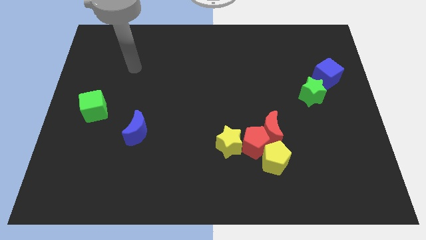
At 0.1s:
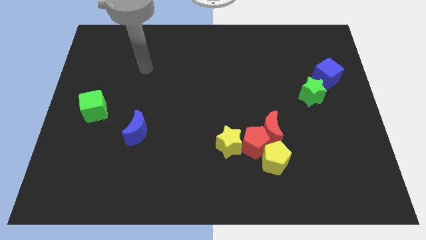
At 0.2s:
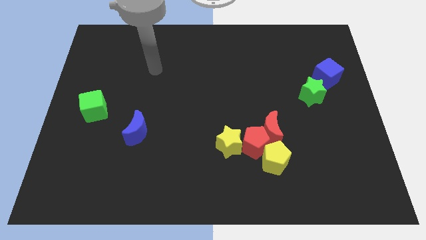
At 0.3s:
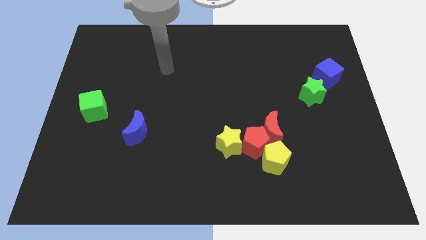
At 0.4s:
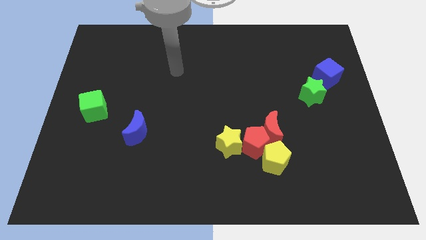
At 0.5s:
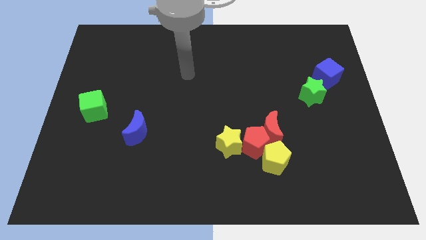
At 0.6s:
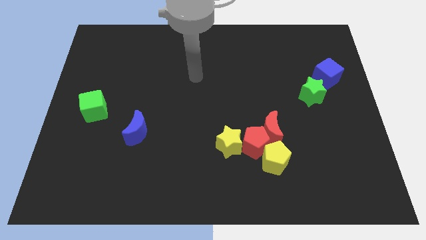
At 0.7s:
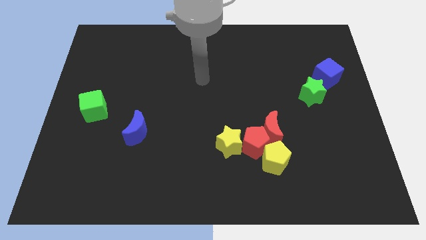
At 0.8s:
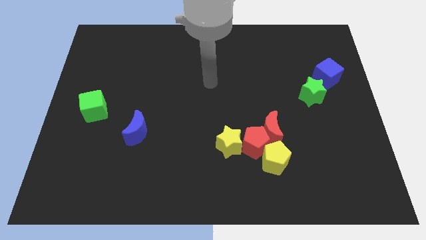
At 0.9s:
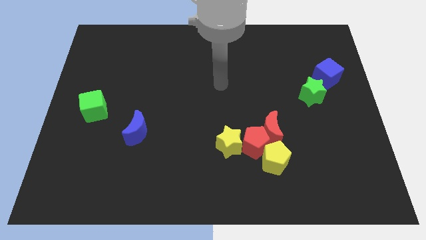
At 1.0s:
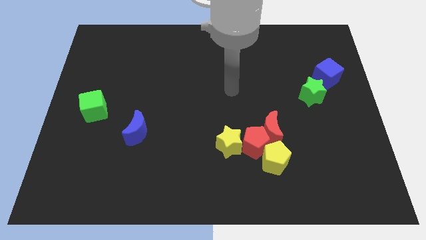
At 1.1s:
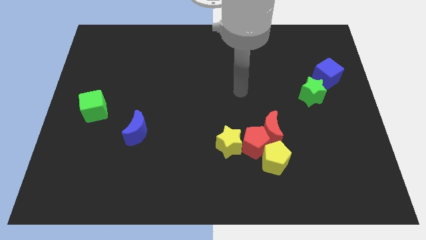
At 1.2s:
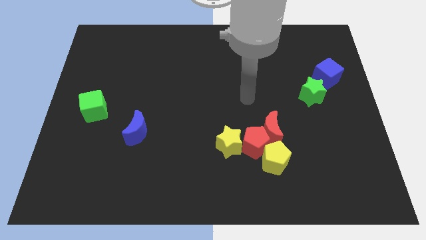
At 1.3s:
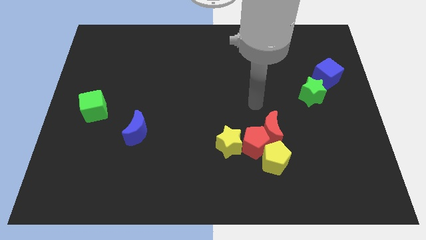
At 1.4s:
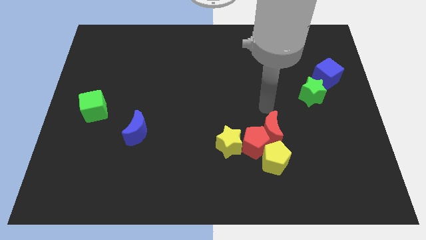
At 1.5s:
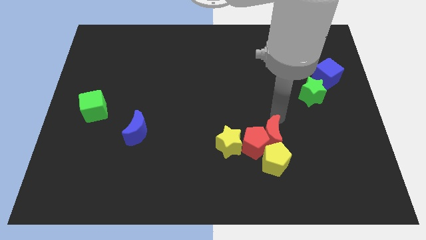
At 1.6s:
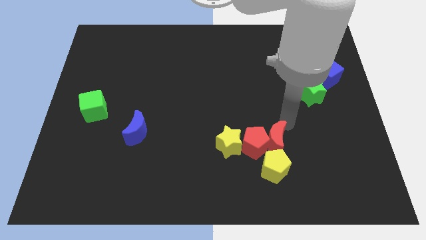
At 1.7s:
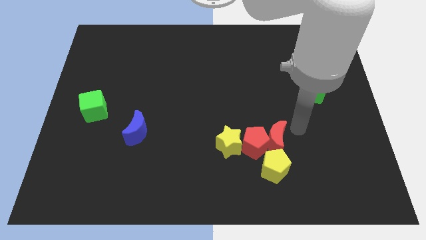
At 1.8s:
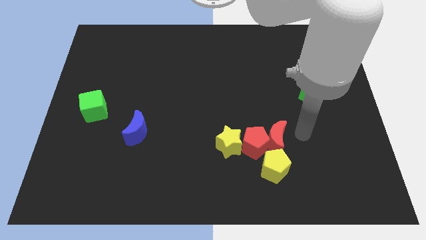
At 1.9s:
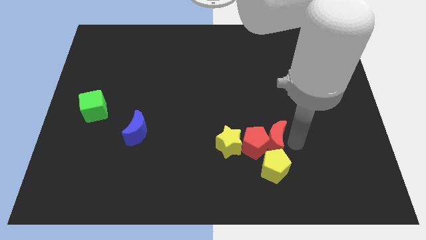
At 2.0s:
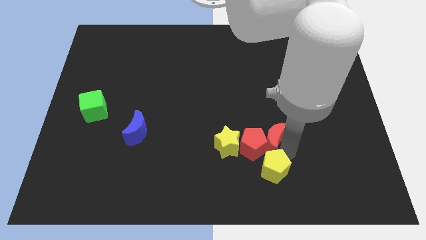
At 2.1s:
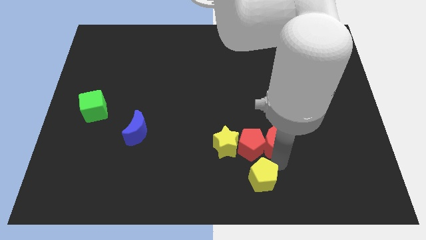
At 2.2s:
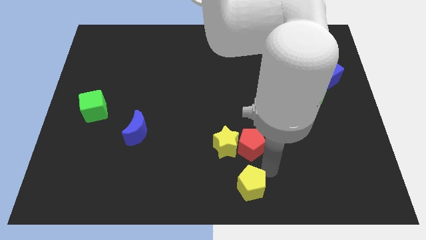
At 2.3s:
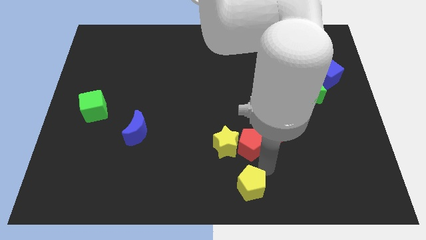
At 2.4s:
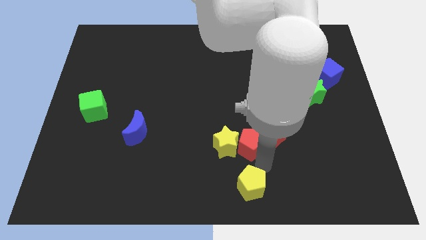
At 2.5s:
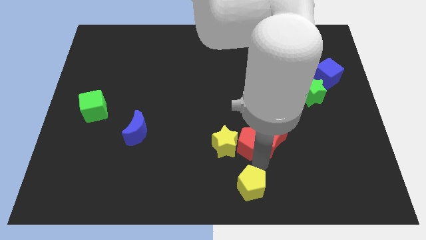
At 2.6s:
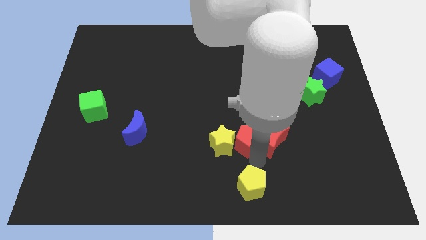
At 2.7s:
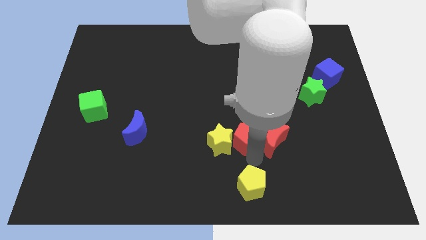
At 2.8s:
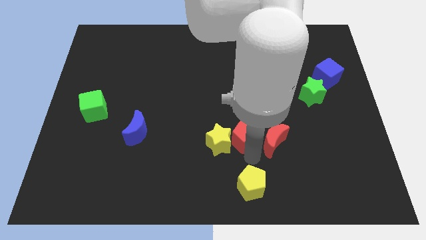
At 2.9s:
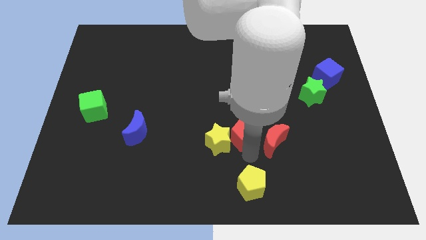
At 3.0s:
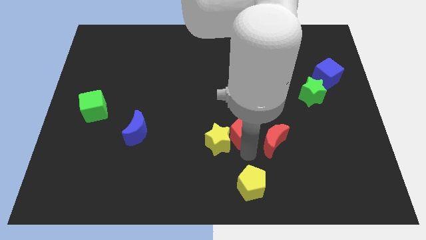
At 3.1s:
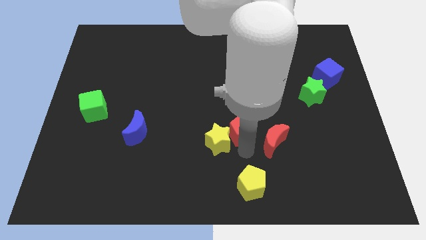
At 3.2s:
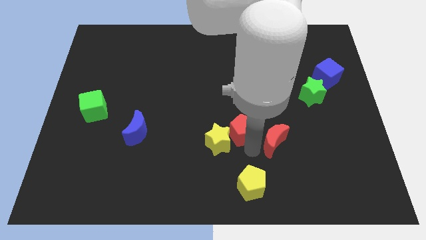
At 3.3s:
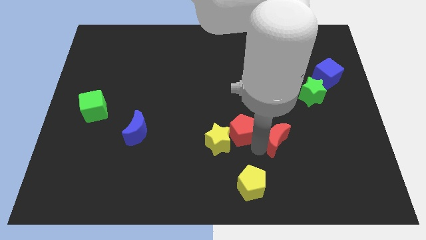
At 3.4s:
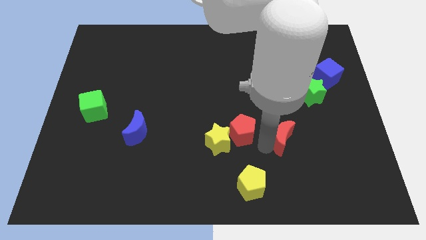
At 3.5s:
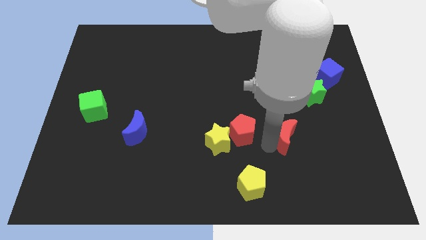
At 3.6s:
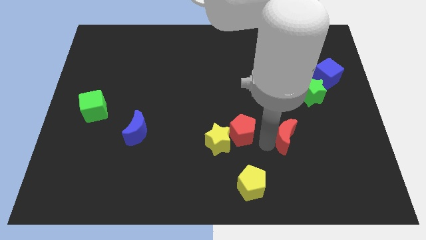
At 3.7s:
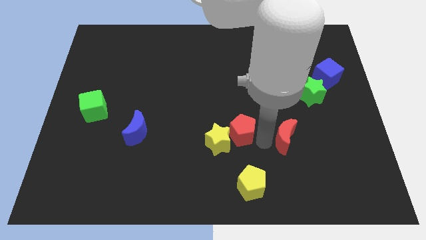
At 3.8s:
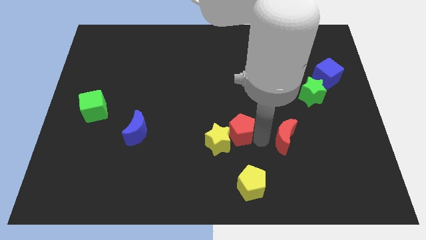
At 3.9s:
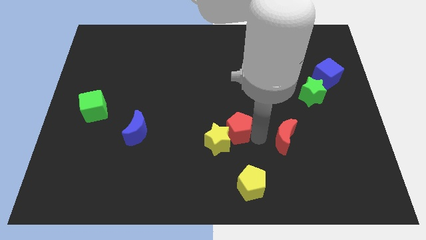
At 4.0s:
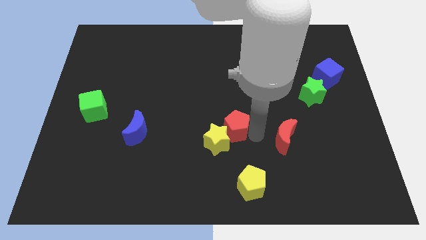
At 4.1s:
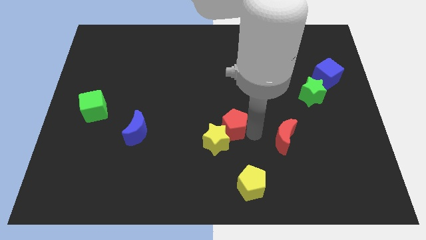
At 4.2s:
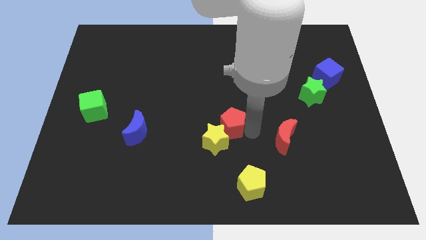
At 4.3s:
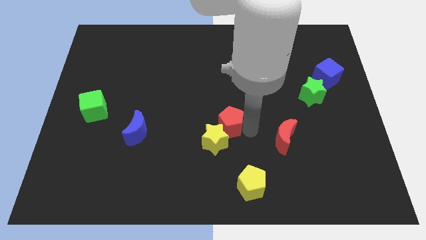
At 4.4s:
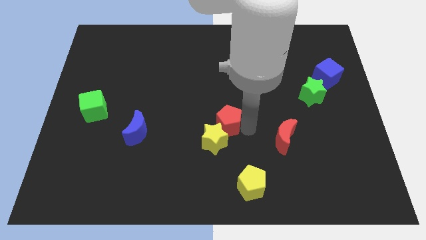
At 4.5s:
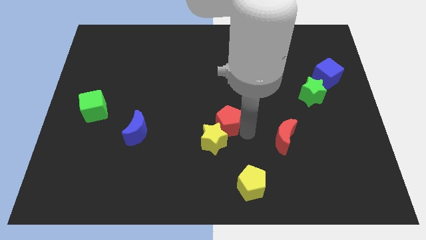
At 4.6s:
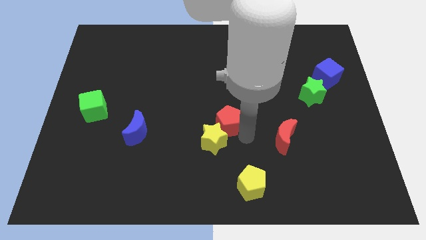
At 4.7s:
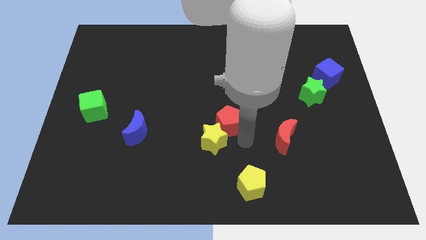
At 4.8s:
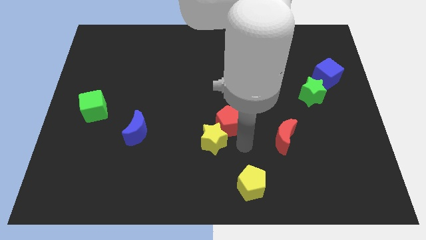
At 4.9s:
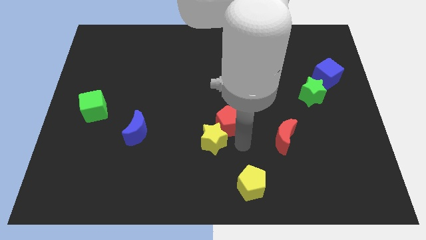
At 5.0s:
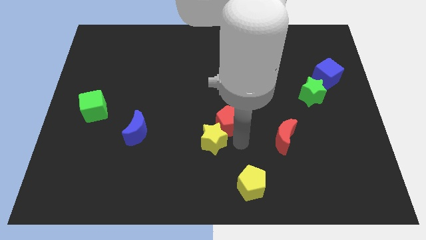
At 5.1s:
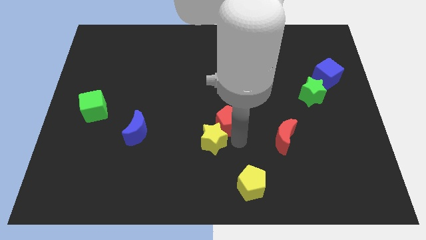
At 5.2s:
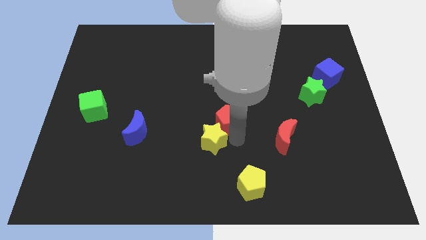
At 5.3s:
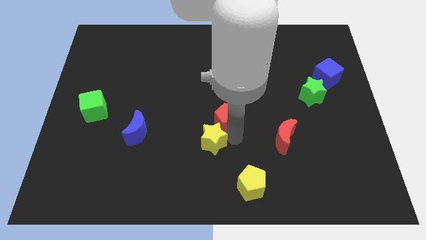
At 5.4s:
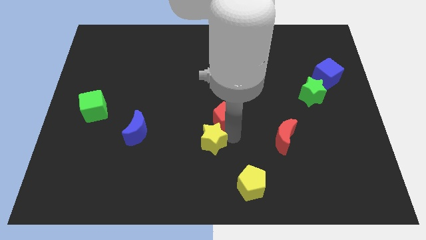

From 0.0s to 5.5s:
separate the red pentagon from the group

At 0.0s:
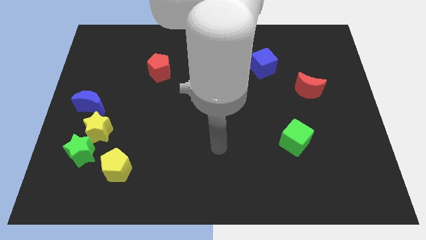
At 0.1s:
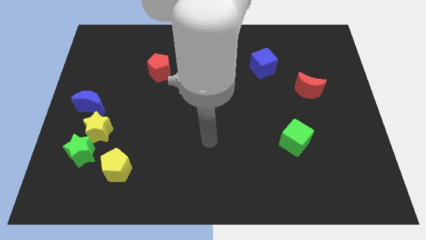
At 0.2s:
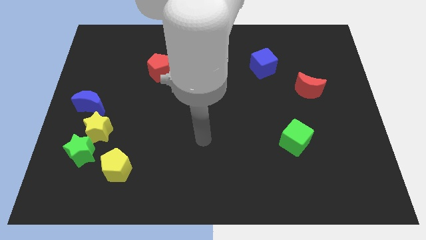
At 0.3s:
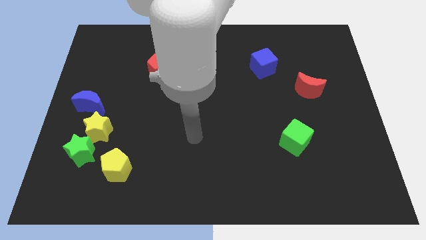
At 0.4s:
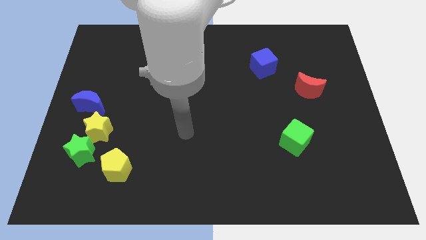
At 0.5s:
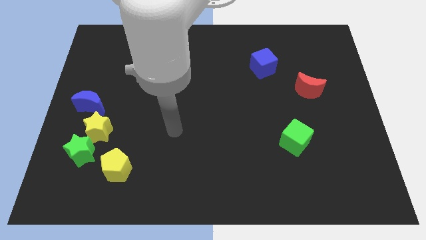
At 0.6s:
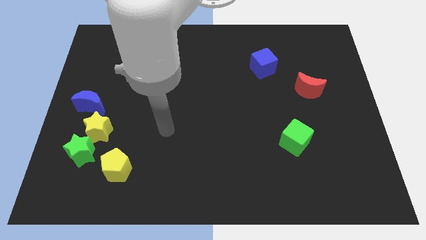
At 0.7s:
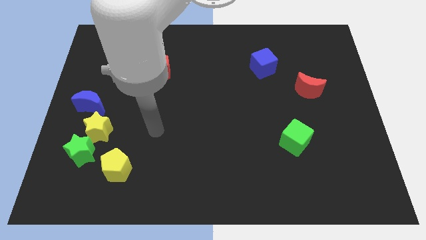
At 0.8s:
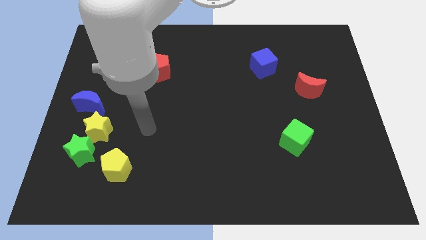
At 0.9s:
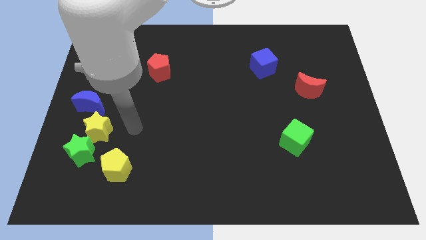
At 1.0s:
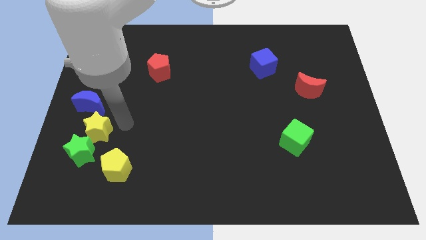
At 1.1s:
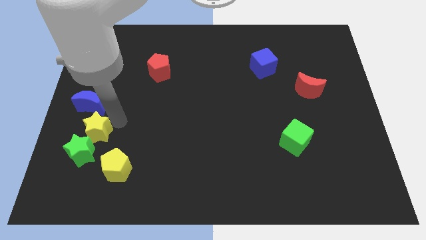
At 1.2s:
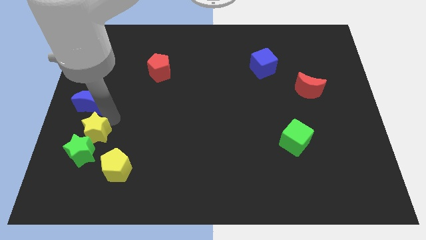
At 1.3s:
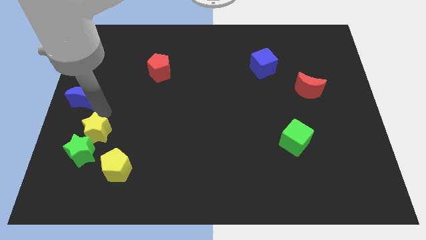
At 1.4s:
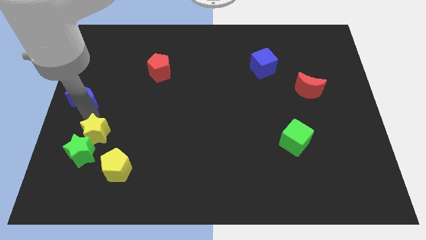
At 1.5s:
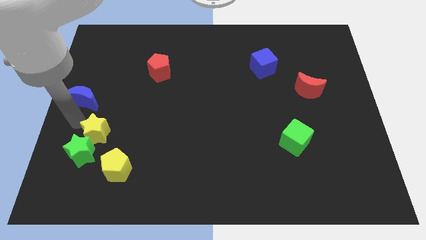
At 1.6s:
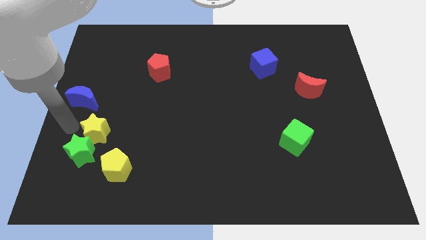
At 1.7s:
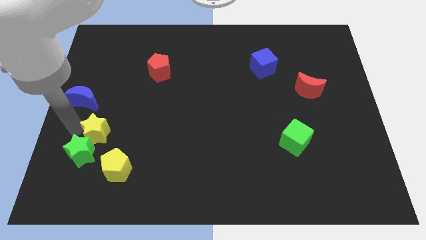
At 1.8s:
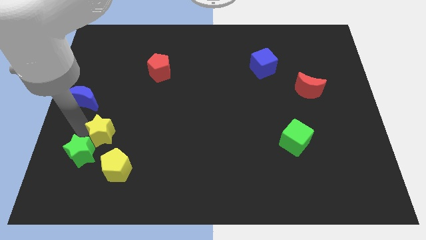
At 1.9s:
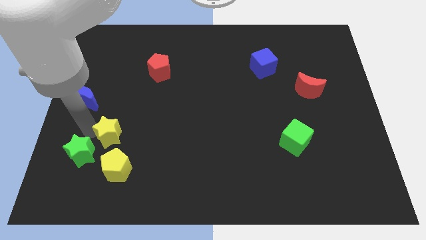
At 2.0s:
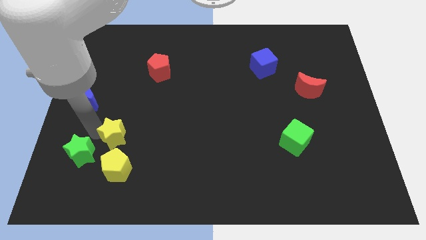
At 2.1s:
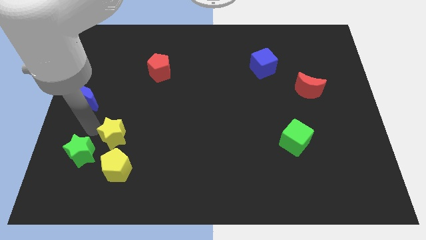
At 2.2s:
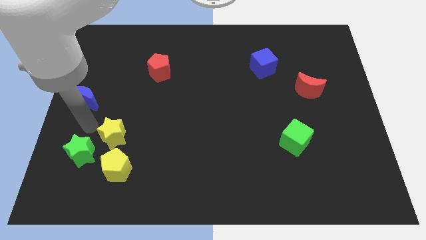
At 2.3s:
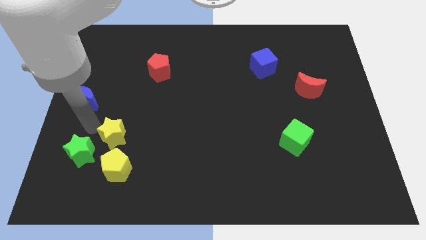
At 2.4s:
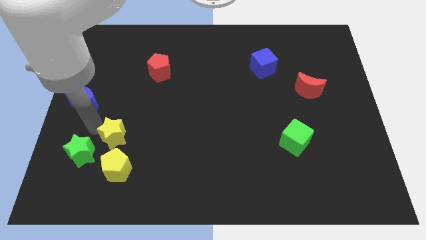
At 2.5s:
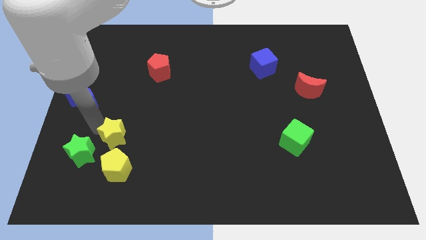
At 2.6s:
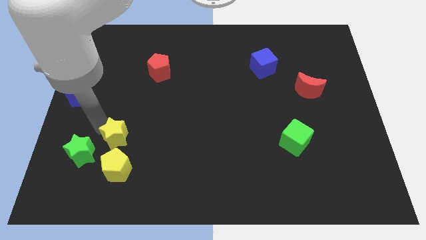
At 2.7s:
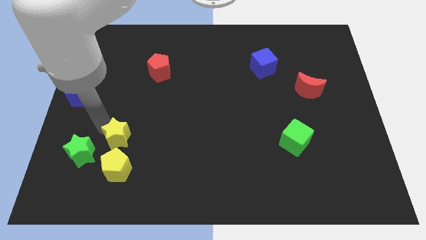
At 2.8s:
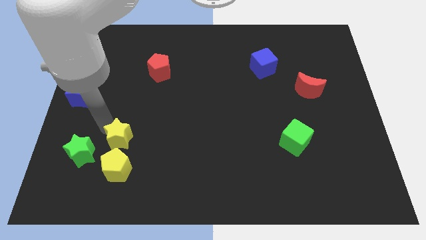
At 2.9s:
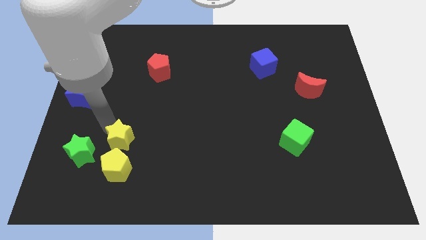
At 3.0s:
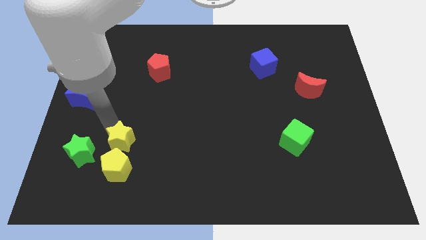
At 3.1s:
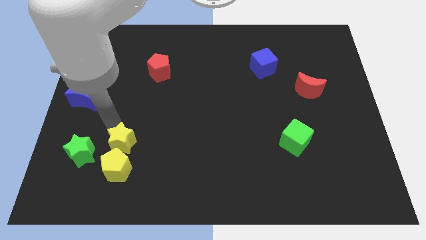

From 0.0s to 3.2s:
pull the yellow star apart from the green star and blue moon

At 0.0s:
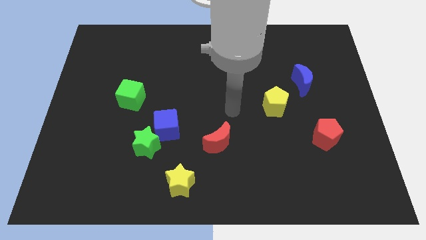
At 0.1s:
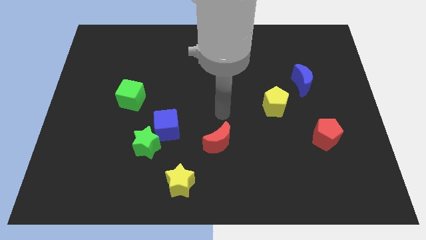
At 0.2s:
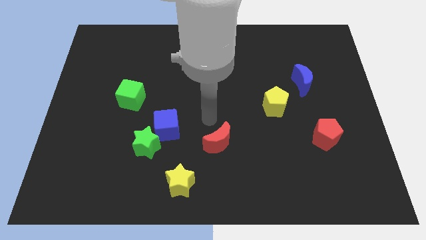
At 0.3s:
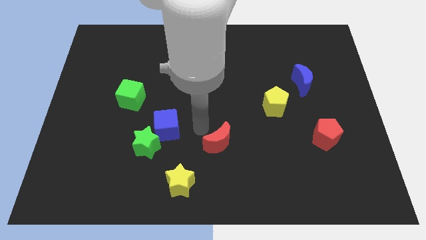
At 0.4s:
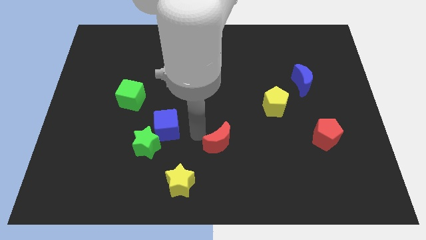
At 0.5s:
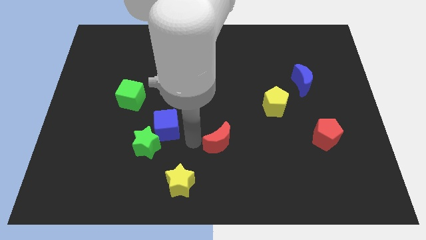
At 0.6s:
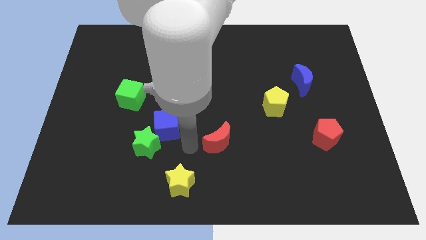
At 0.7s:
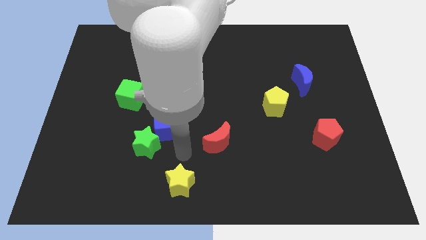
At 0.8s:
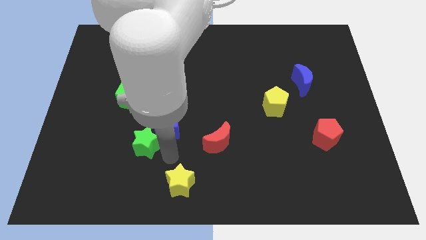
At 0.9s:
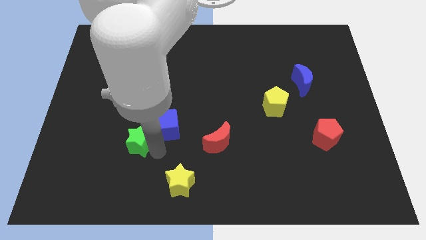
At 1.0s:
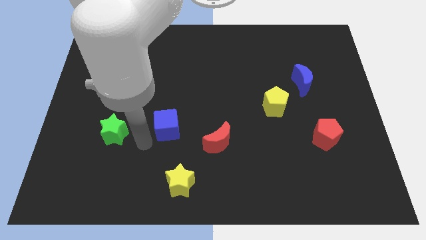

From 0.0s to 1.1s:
pull the blue cube apart from the green star
